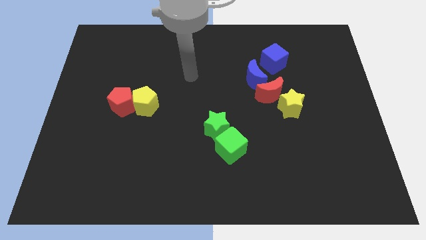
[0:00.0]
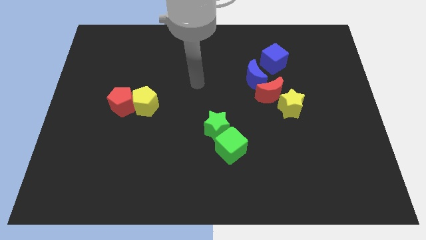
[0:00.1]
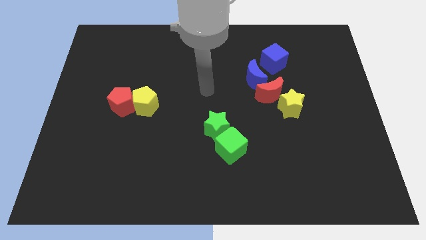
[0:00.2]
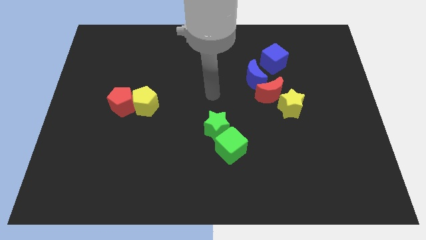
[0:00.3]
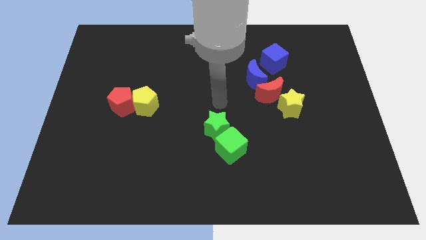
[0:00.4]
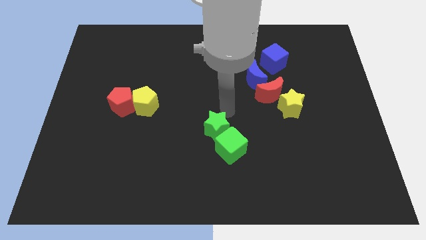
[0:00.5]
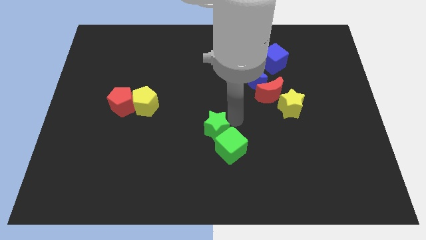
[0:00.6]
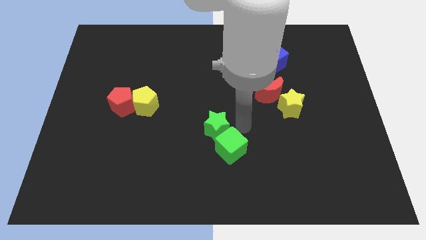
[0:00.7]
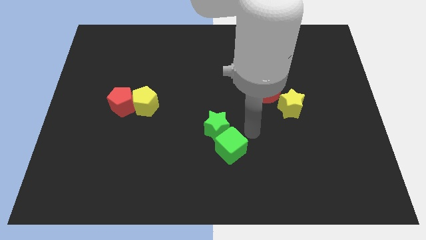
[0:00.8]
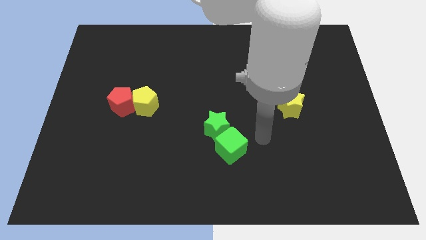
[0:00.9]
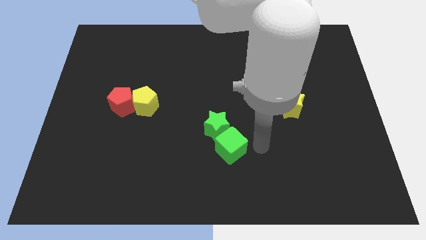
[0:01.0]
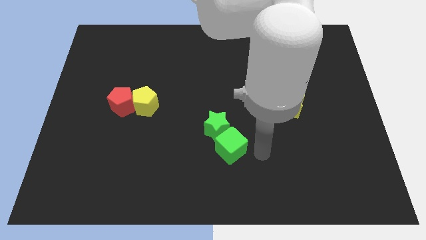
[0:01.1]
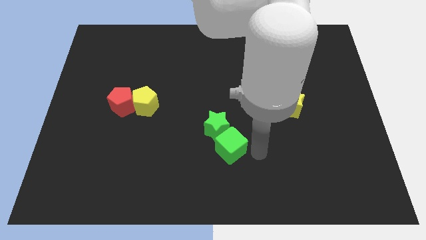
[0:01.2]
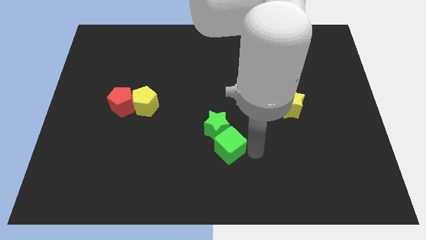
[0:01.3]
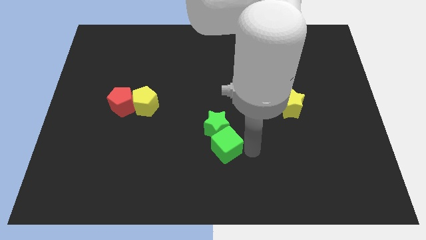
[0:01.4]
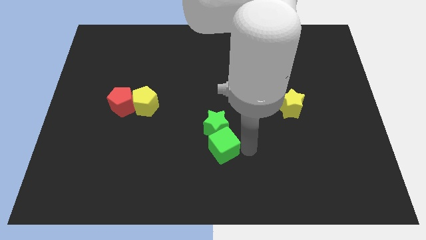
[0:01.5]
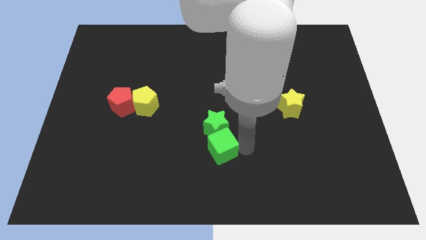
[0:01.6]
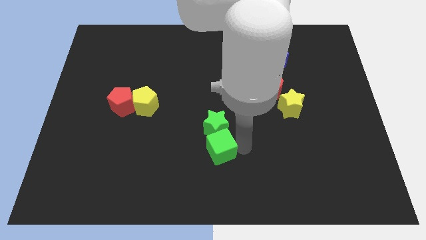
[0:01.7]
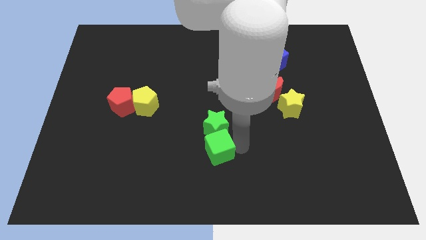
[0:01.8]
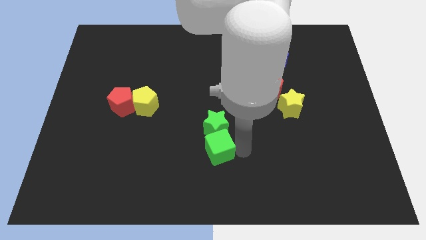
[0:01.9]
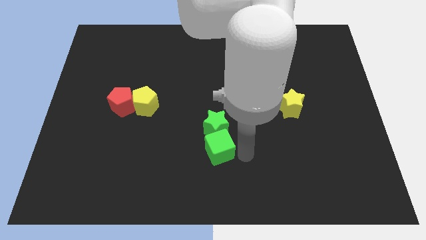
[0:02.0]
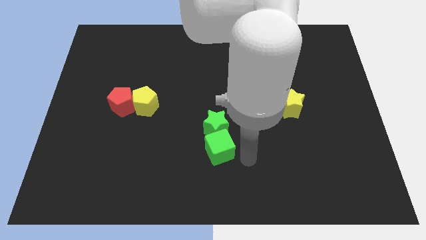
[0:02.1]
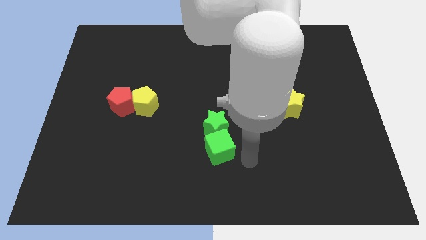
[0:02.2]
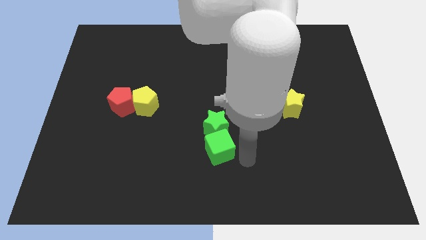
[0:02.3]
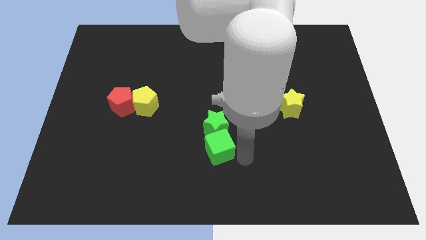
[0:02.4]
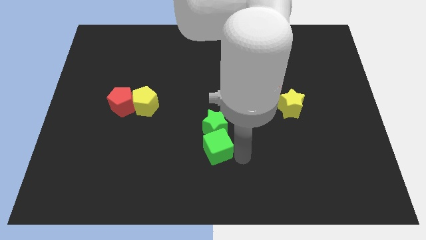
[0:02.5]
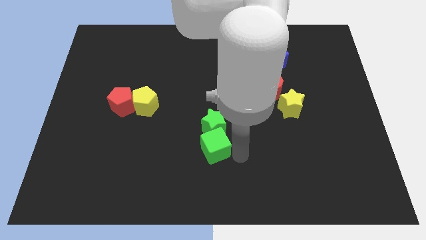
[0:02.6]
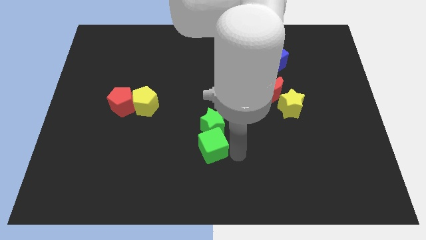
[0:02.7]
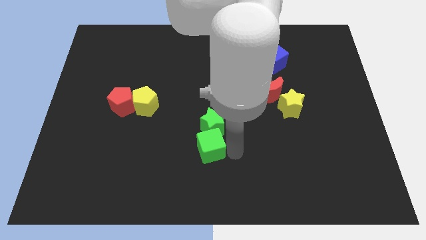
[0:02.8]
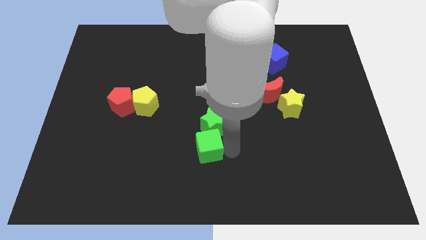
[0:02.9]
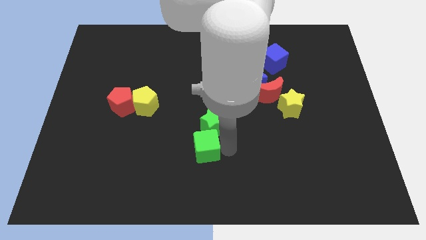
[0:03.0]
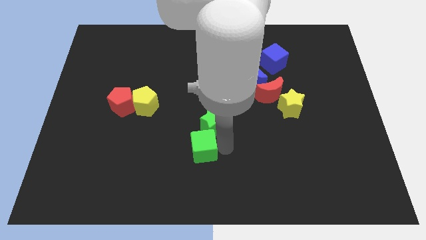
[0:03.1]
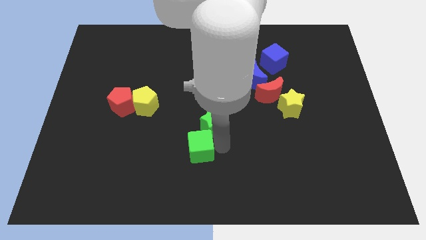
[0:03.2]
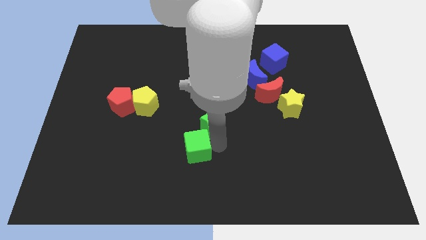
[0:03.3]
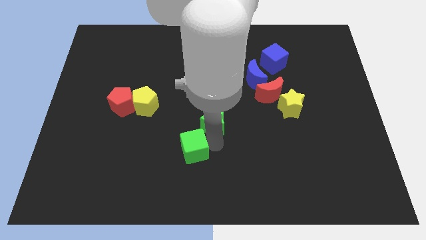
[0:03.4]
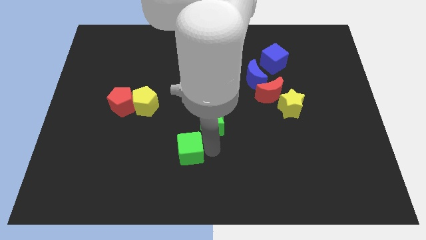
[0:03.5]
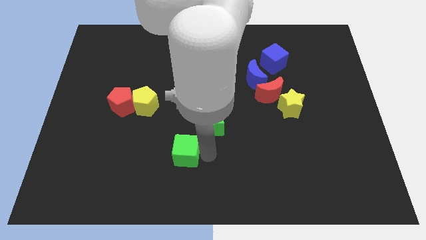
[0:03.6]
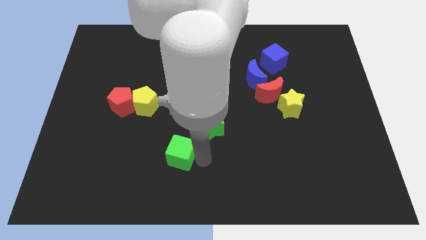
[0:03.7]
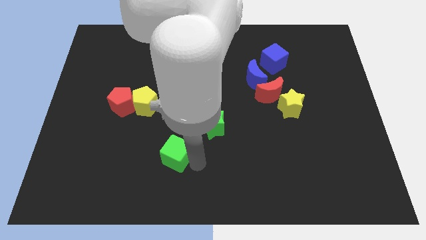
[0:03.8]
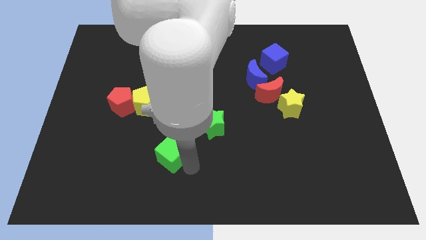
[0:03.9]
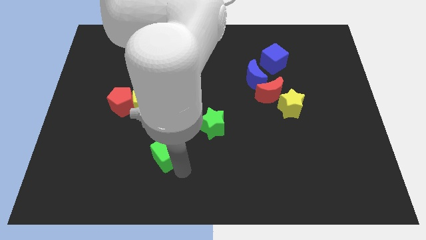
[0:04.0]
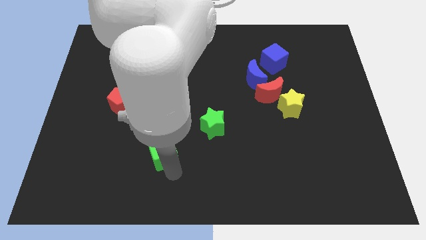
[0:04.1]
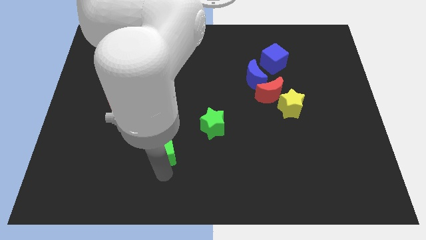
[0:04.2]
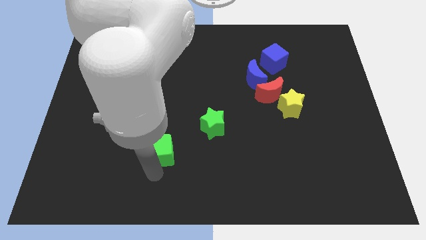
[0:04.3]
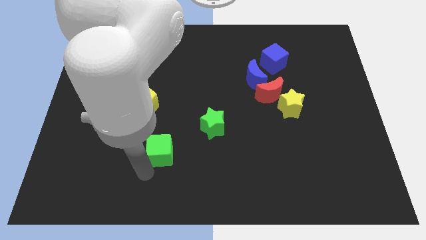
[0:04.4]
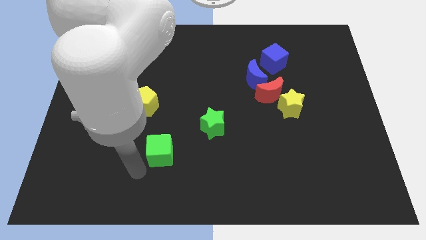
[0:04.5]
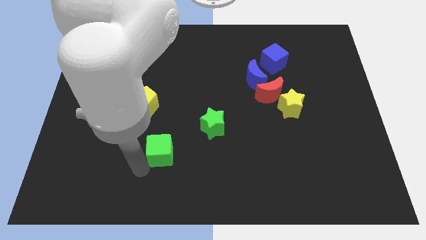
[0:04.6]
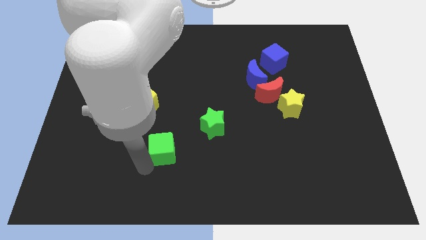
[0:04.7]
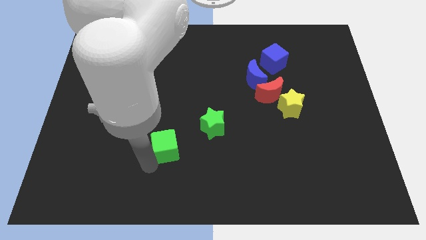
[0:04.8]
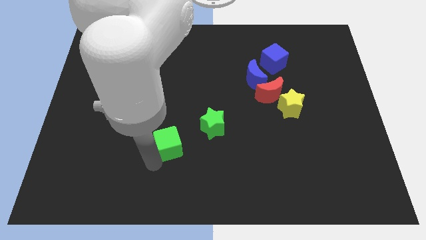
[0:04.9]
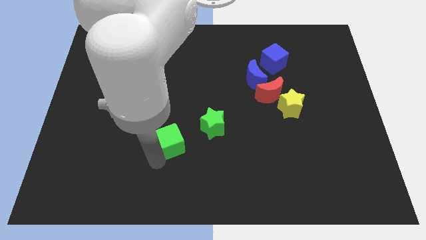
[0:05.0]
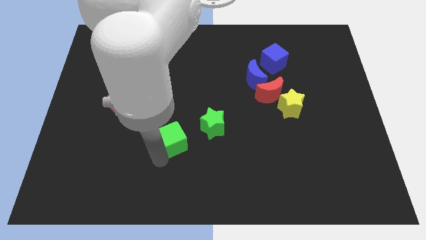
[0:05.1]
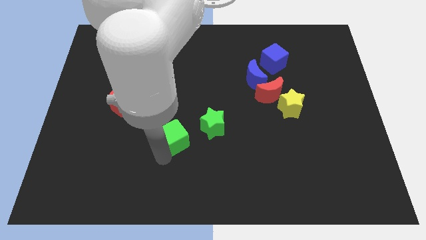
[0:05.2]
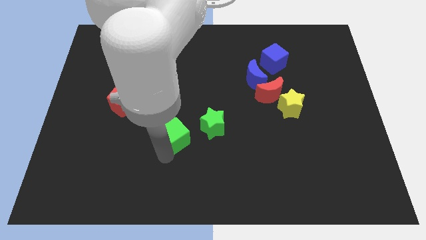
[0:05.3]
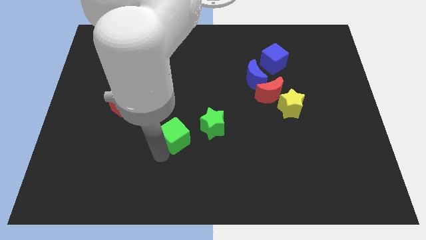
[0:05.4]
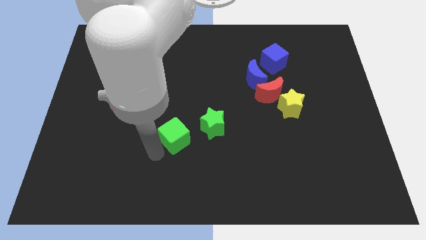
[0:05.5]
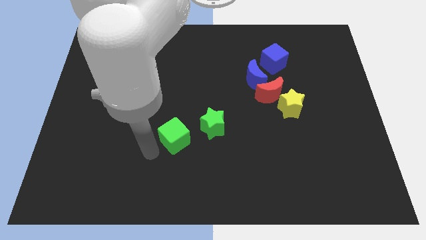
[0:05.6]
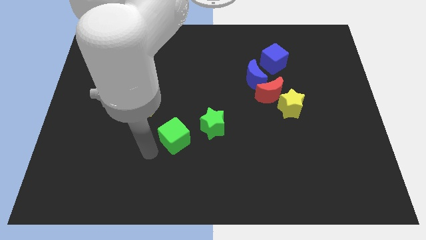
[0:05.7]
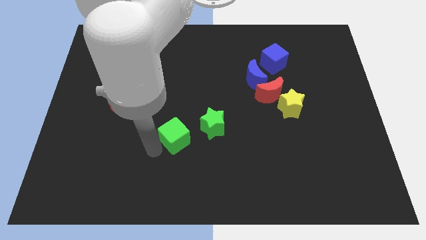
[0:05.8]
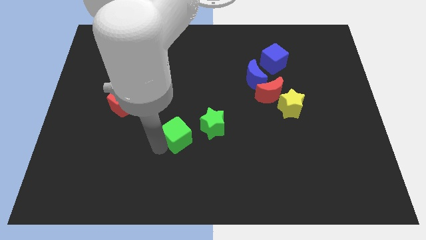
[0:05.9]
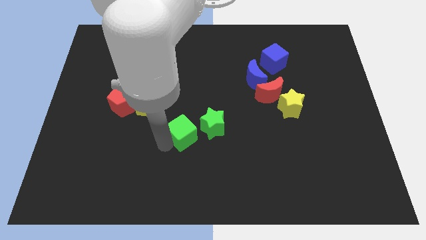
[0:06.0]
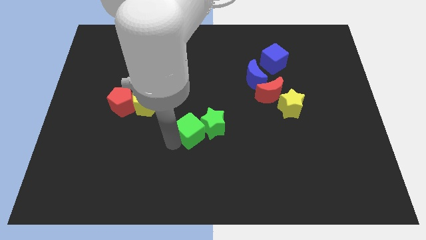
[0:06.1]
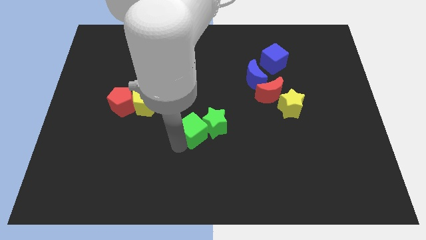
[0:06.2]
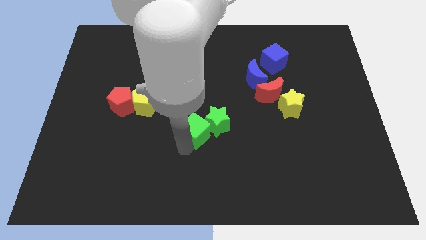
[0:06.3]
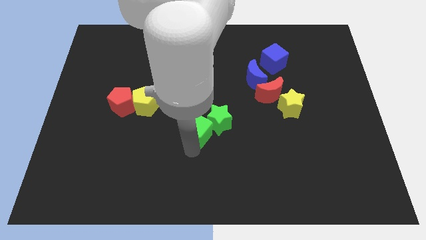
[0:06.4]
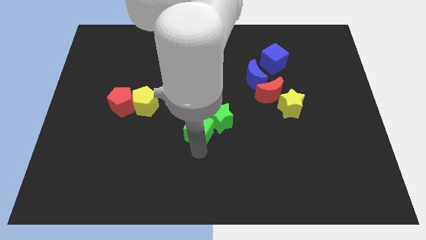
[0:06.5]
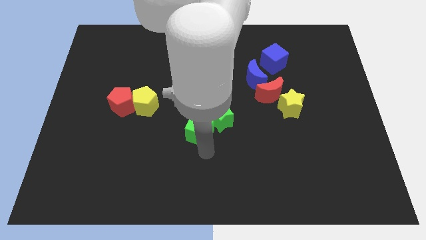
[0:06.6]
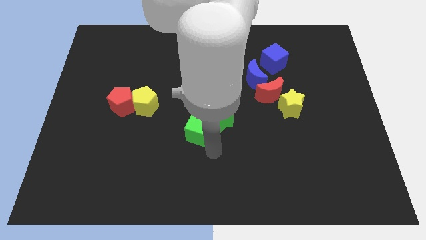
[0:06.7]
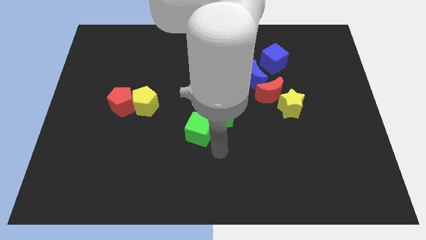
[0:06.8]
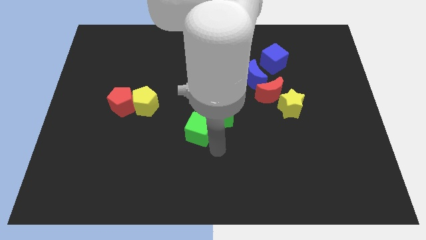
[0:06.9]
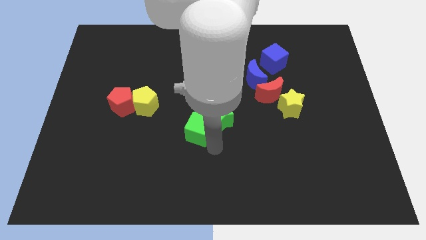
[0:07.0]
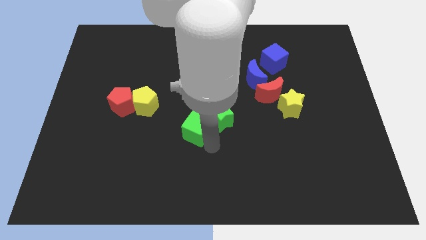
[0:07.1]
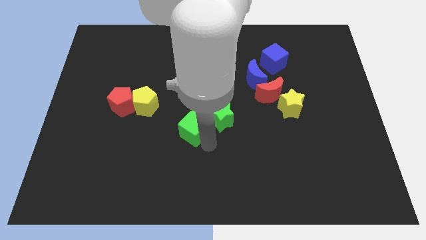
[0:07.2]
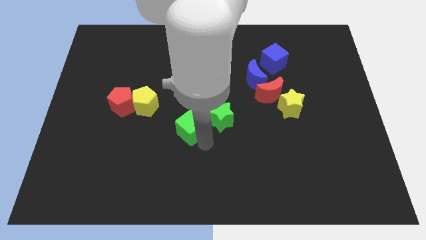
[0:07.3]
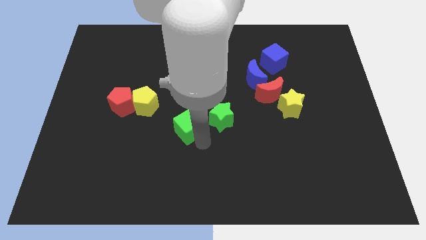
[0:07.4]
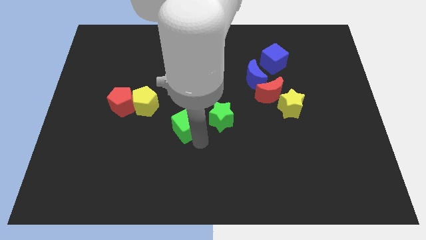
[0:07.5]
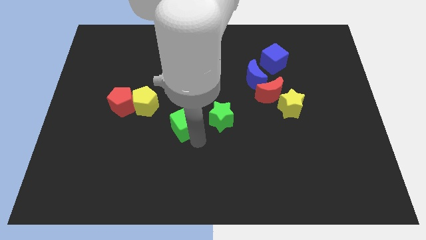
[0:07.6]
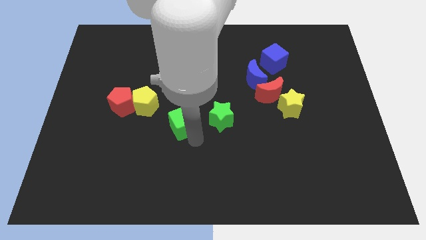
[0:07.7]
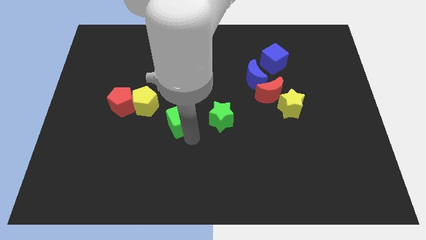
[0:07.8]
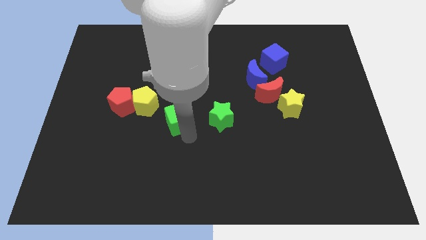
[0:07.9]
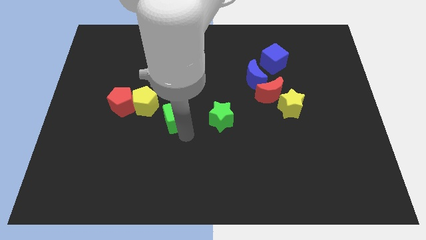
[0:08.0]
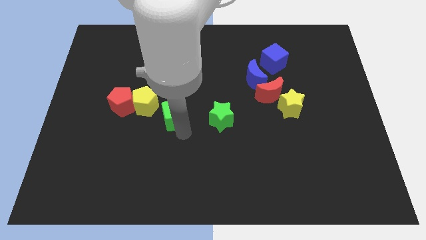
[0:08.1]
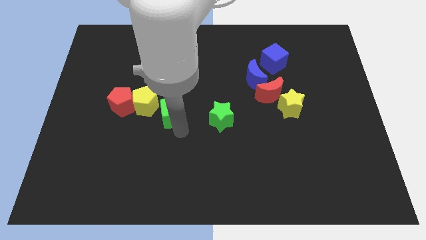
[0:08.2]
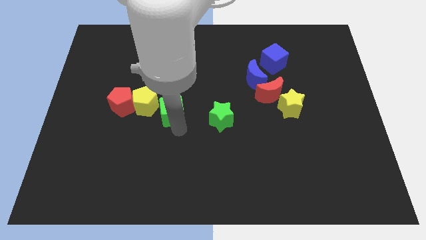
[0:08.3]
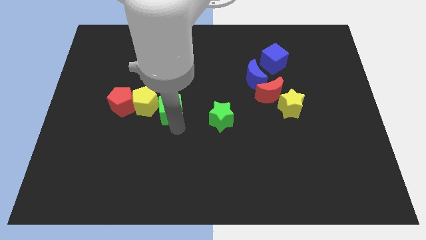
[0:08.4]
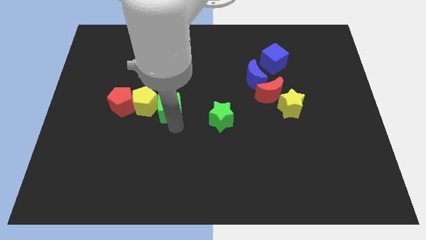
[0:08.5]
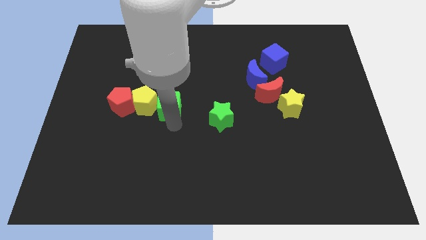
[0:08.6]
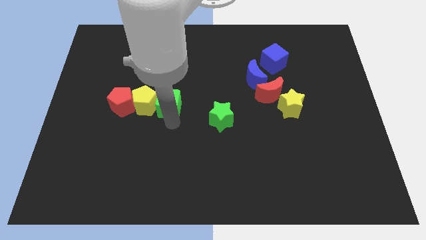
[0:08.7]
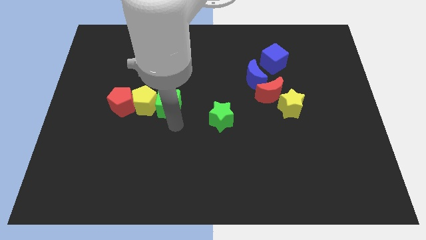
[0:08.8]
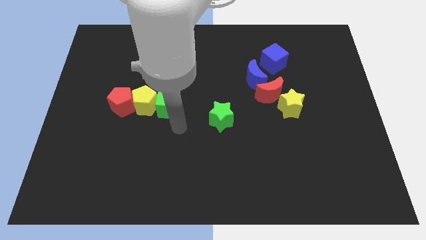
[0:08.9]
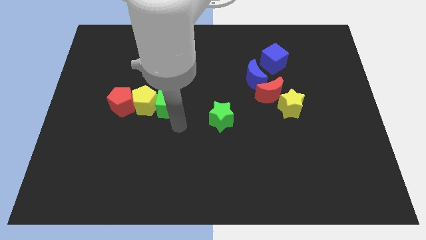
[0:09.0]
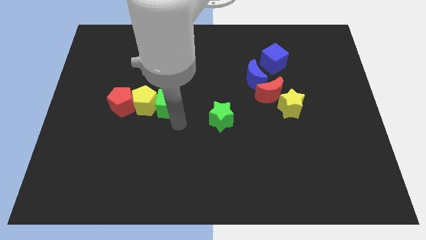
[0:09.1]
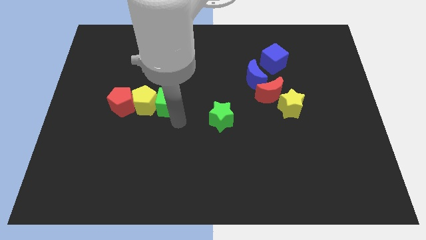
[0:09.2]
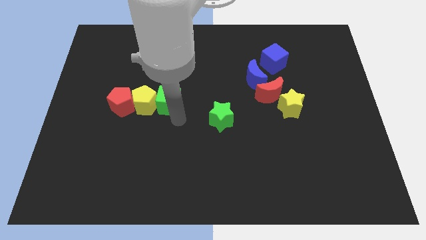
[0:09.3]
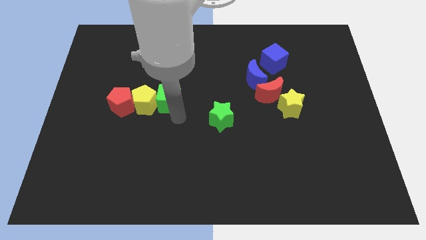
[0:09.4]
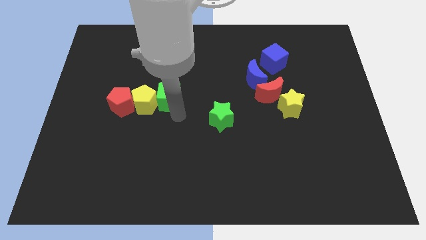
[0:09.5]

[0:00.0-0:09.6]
move the green cube upwards and then to the left
